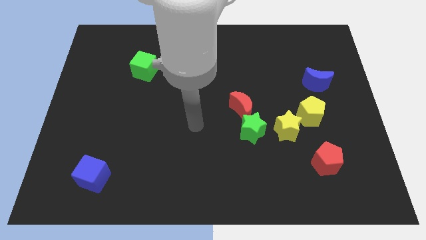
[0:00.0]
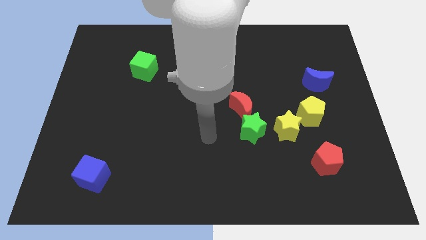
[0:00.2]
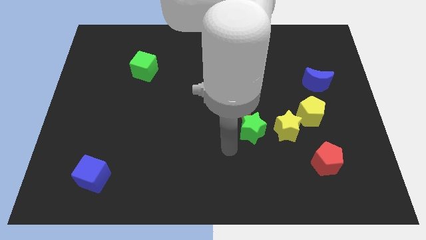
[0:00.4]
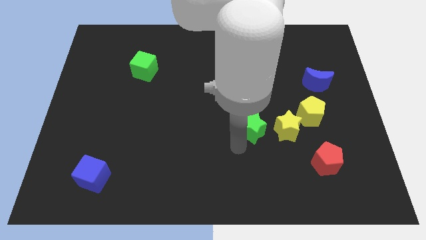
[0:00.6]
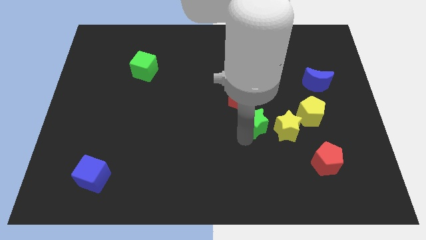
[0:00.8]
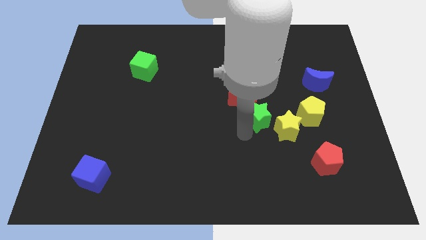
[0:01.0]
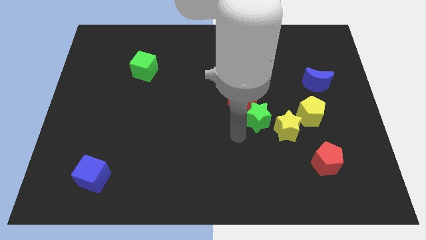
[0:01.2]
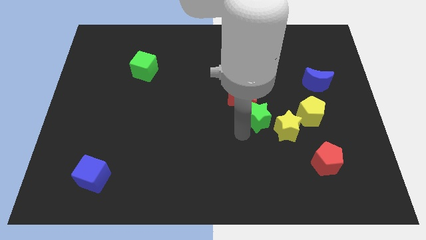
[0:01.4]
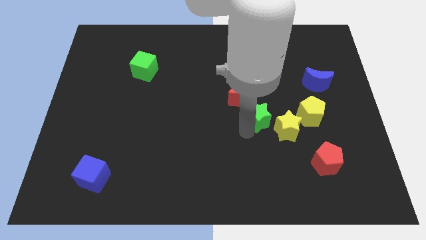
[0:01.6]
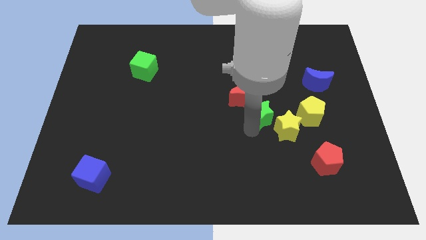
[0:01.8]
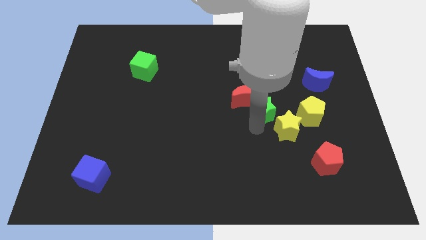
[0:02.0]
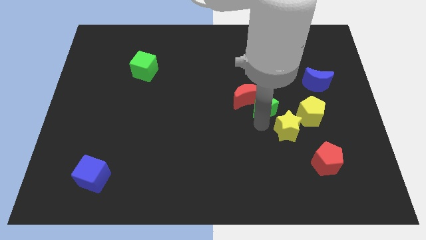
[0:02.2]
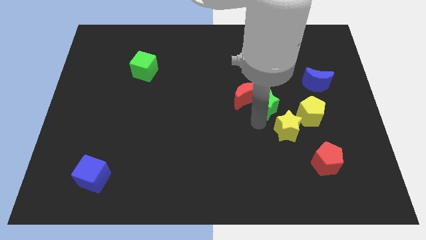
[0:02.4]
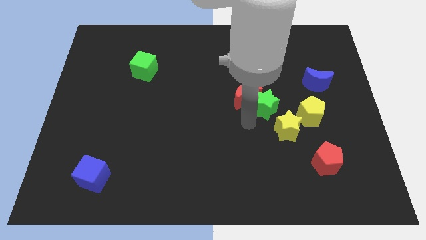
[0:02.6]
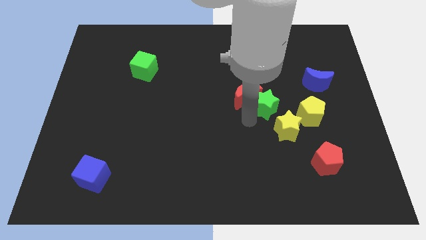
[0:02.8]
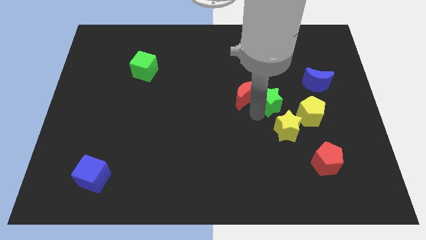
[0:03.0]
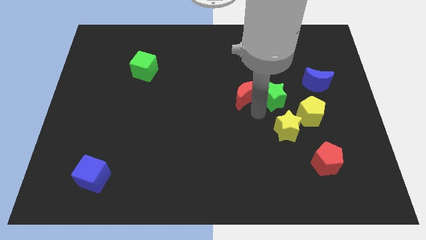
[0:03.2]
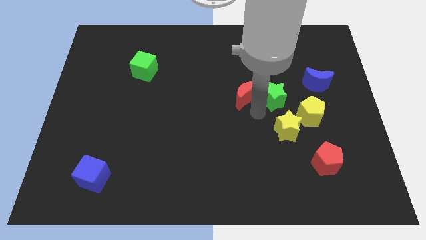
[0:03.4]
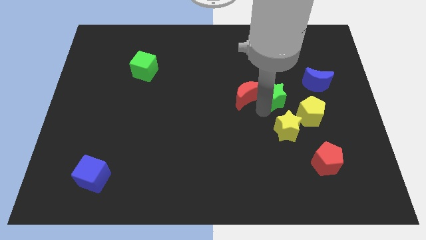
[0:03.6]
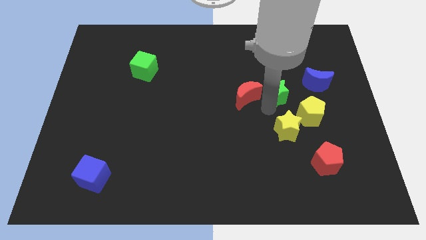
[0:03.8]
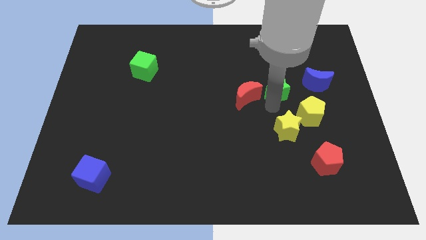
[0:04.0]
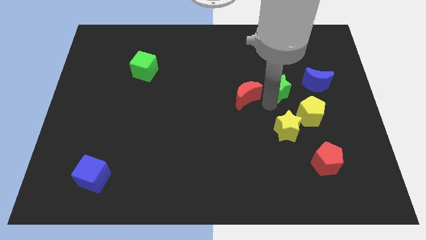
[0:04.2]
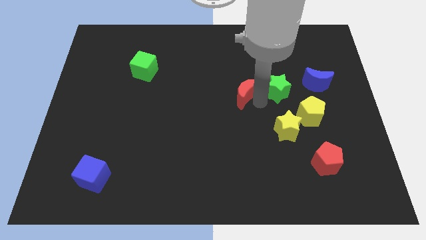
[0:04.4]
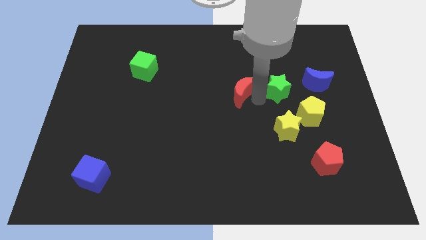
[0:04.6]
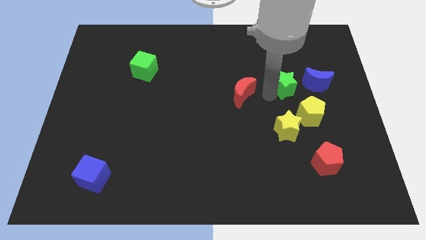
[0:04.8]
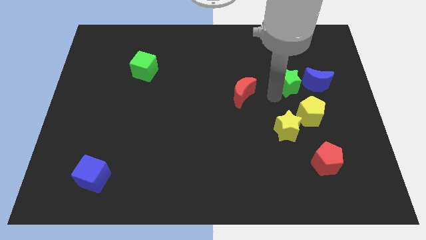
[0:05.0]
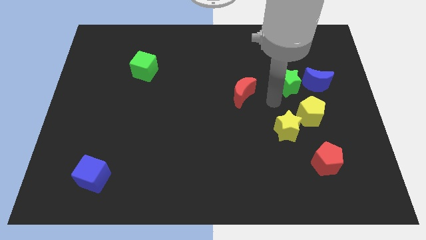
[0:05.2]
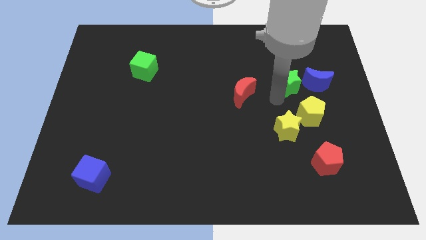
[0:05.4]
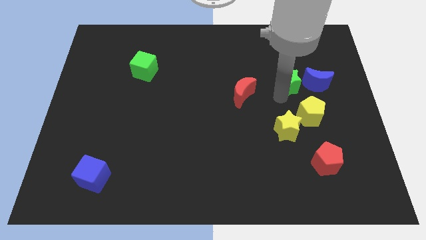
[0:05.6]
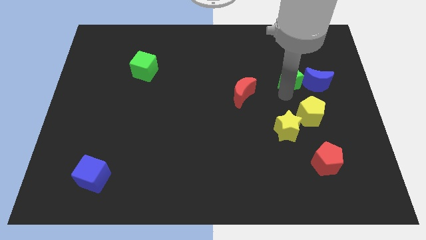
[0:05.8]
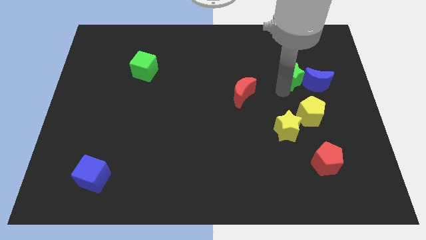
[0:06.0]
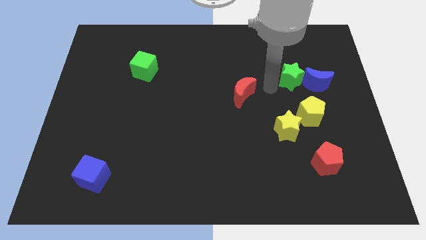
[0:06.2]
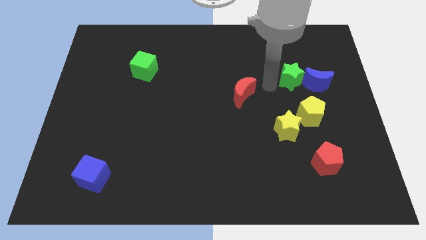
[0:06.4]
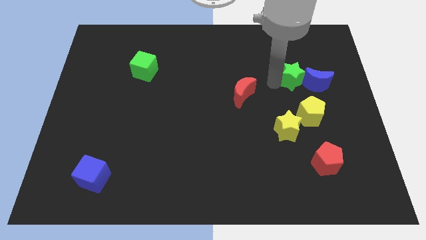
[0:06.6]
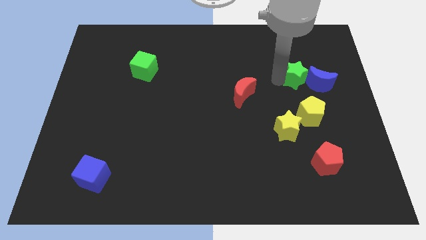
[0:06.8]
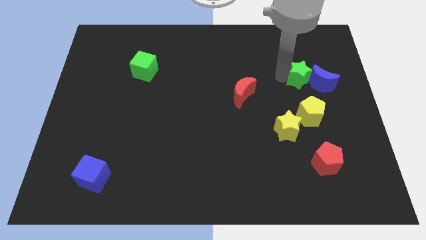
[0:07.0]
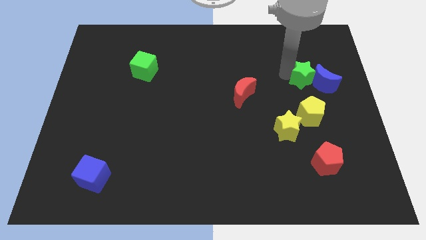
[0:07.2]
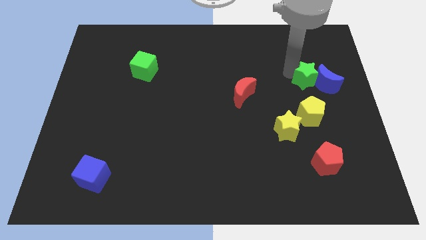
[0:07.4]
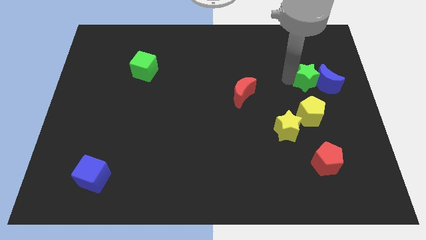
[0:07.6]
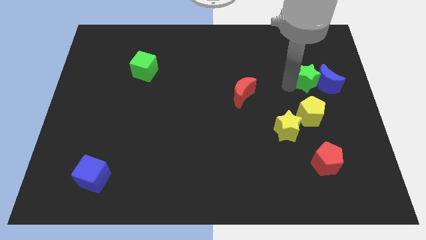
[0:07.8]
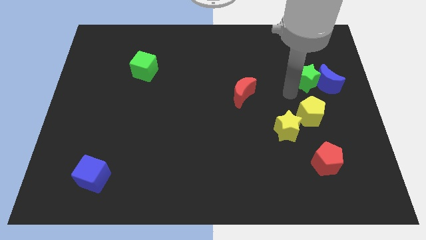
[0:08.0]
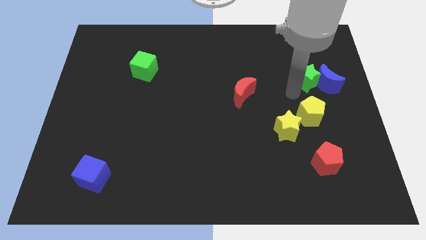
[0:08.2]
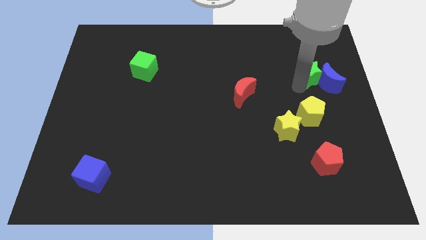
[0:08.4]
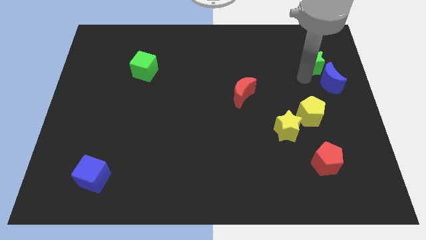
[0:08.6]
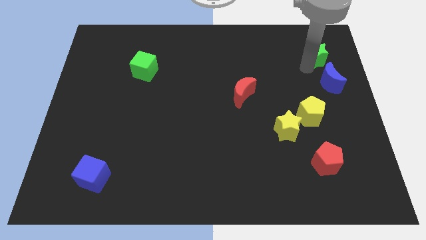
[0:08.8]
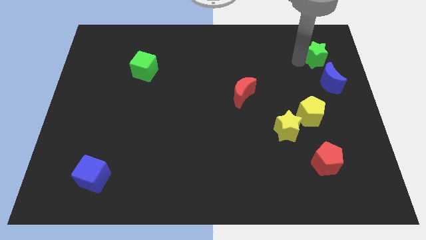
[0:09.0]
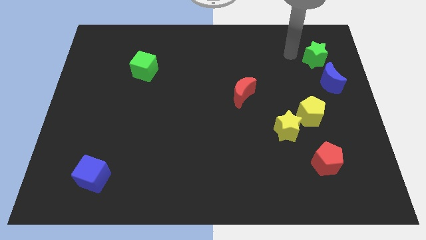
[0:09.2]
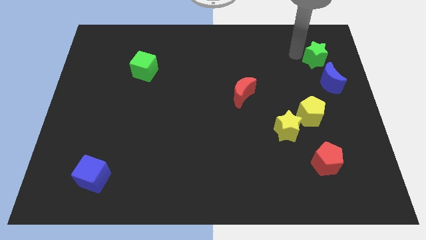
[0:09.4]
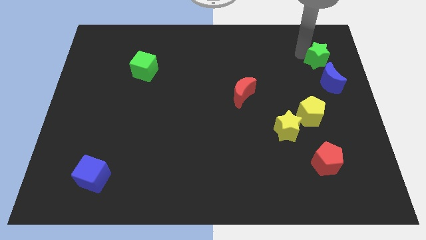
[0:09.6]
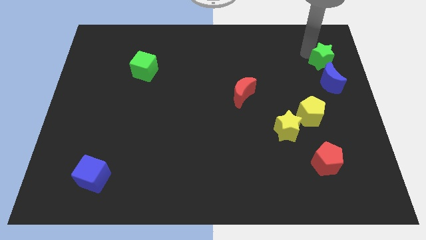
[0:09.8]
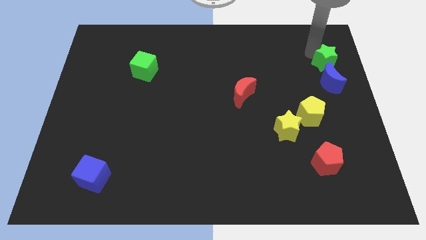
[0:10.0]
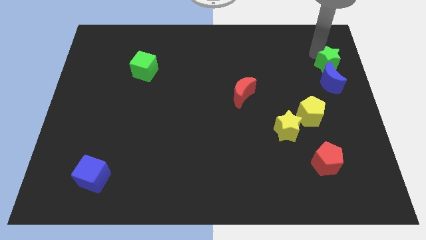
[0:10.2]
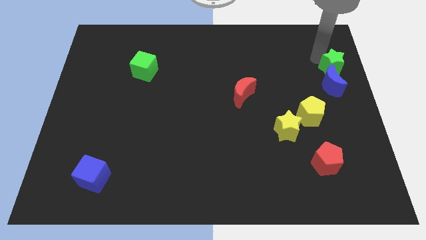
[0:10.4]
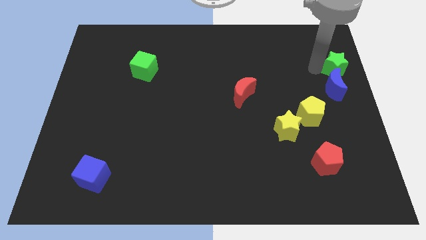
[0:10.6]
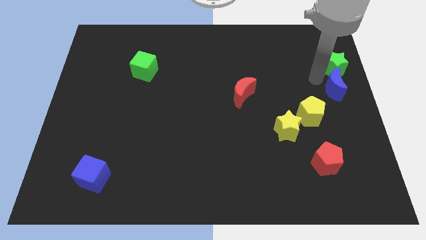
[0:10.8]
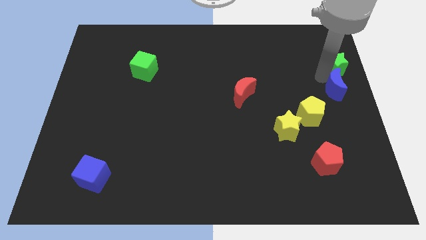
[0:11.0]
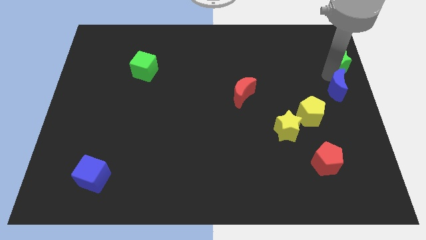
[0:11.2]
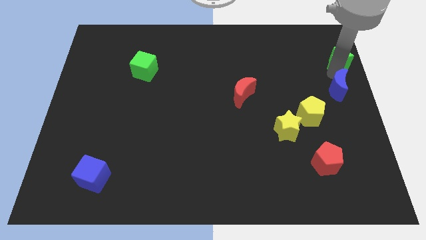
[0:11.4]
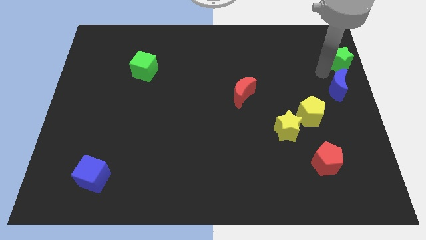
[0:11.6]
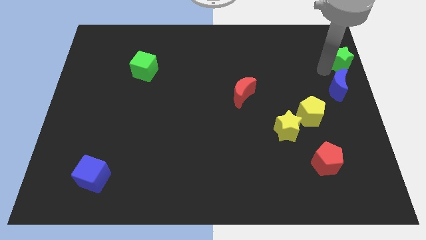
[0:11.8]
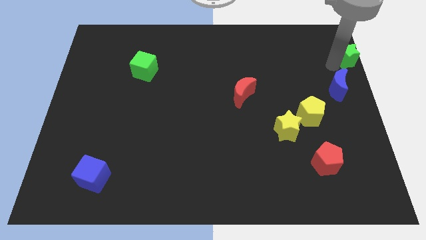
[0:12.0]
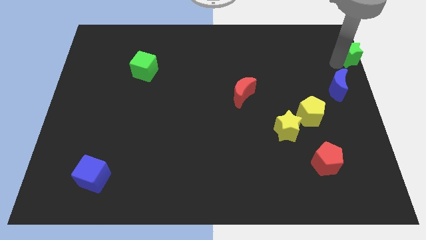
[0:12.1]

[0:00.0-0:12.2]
move the green star to the upper right corner
